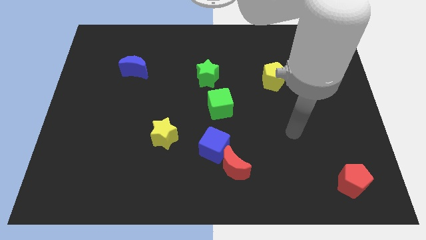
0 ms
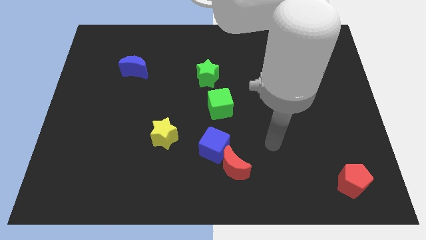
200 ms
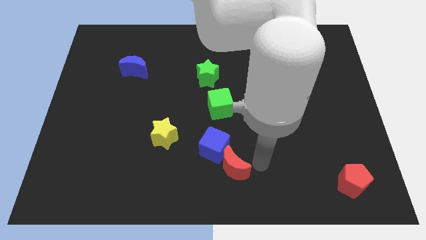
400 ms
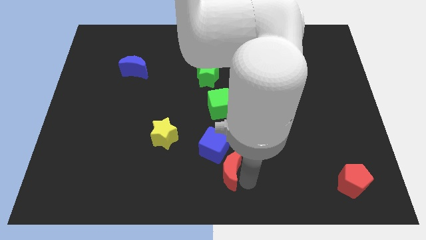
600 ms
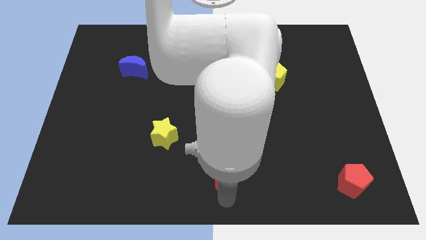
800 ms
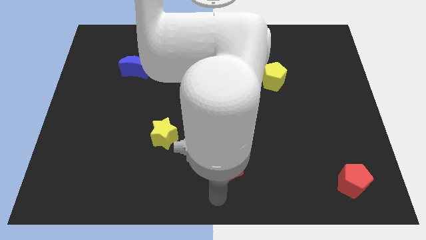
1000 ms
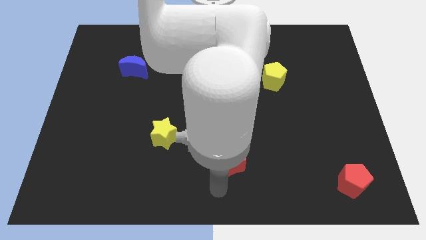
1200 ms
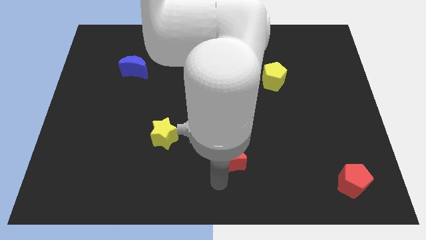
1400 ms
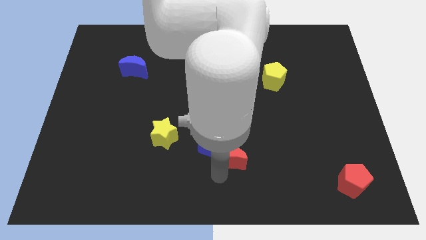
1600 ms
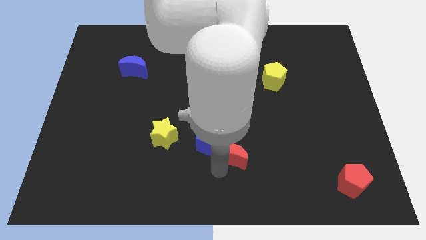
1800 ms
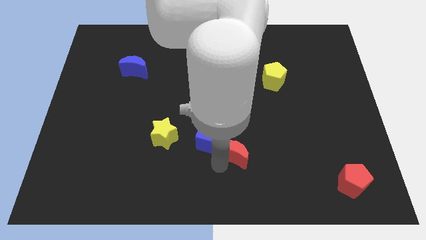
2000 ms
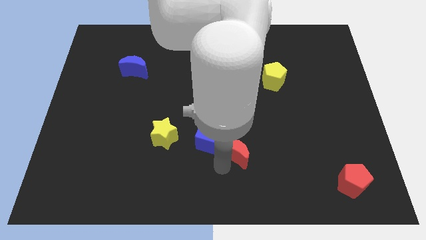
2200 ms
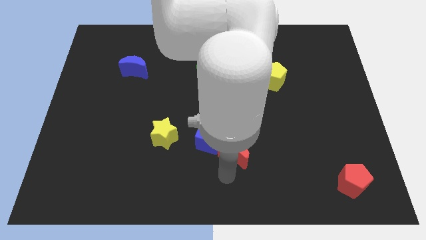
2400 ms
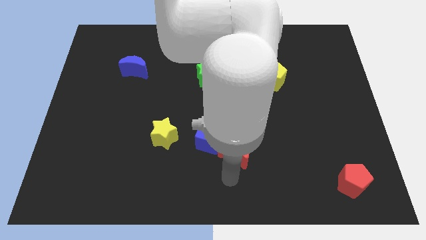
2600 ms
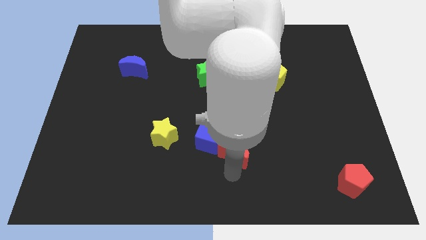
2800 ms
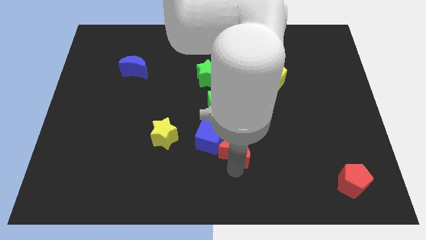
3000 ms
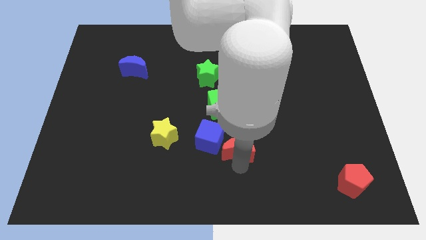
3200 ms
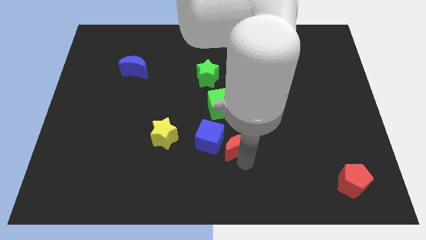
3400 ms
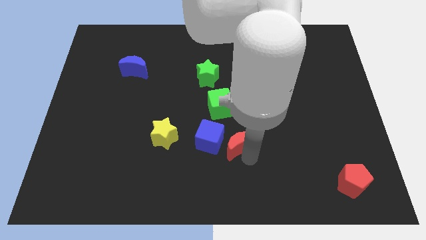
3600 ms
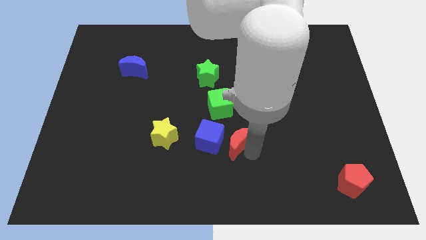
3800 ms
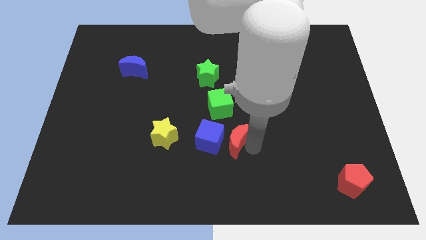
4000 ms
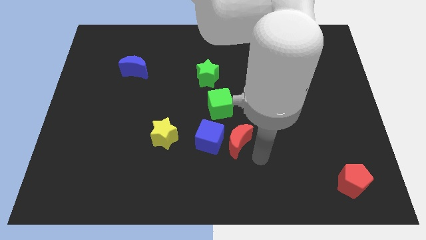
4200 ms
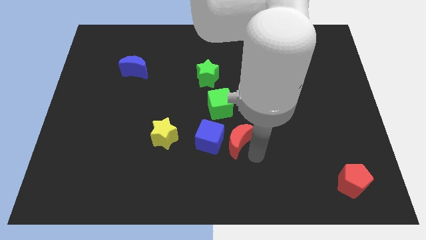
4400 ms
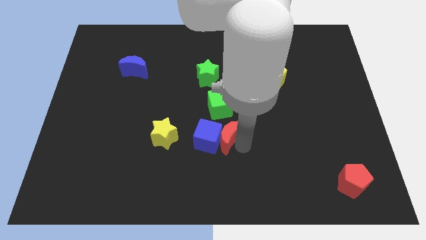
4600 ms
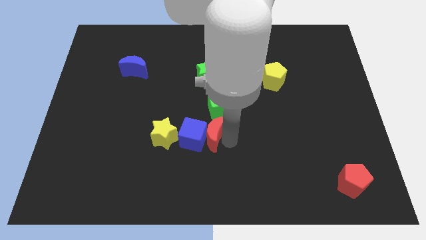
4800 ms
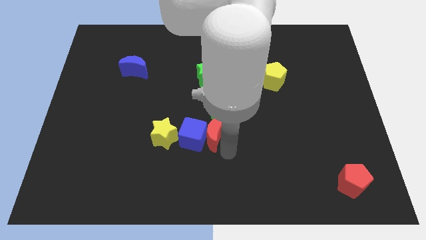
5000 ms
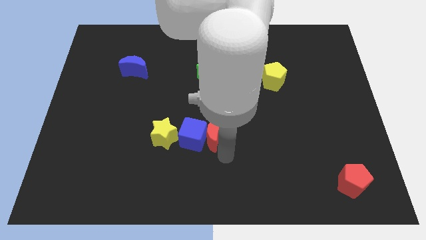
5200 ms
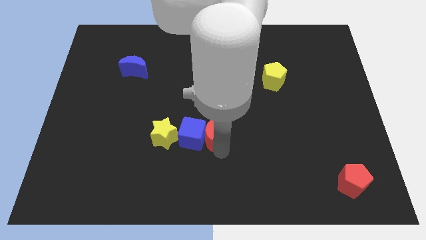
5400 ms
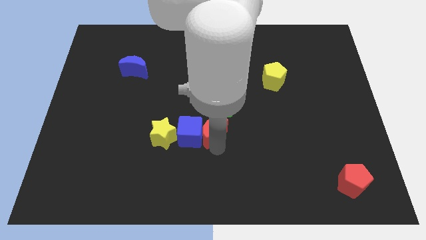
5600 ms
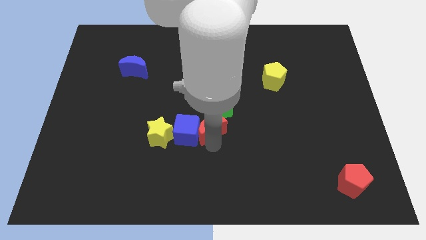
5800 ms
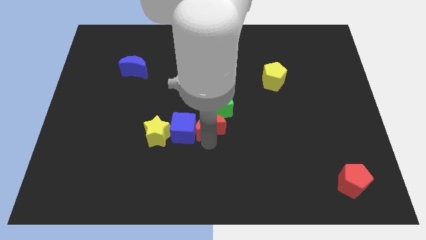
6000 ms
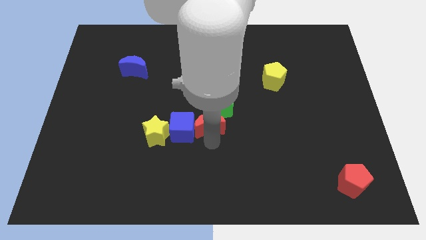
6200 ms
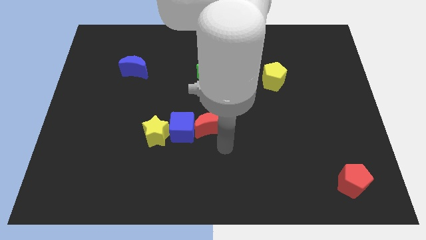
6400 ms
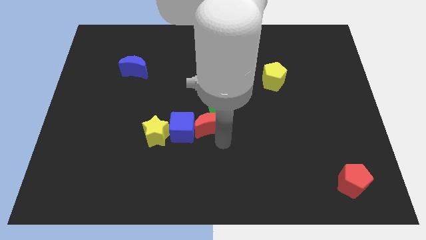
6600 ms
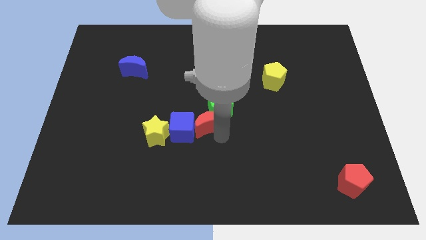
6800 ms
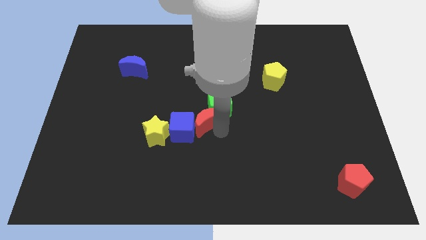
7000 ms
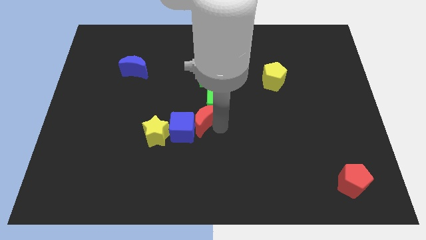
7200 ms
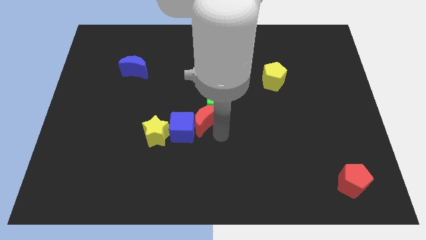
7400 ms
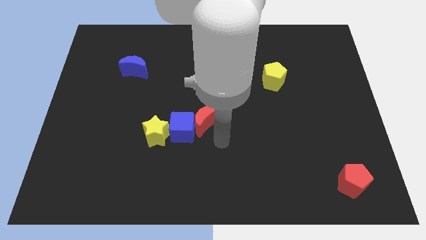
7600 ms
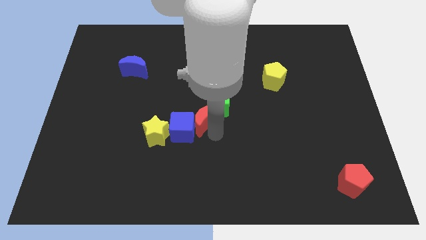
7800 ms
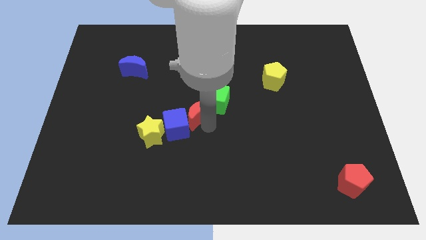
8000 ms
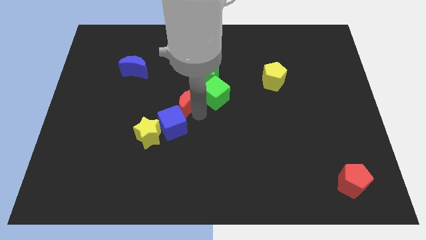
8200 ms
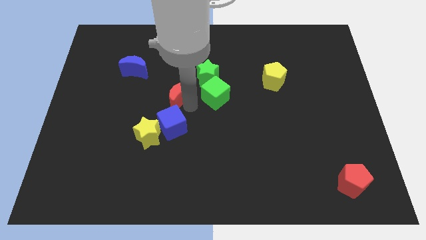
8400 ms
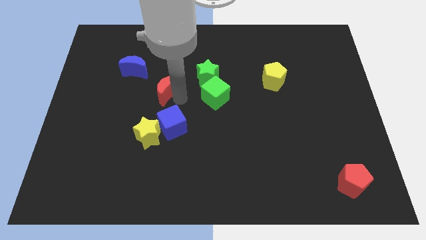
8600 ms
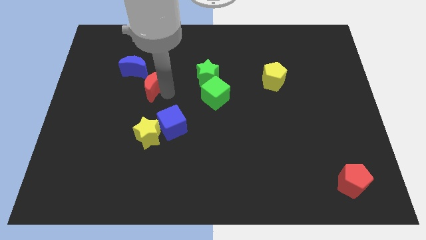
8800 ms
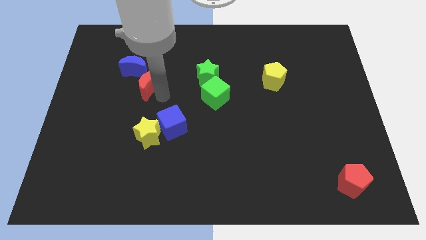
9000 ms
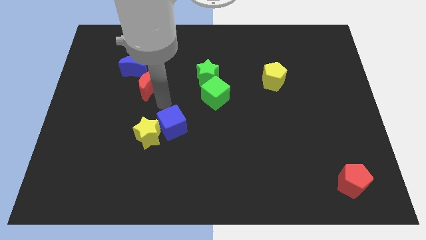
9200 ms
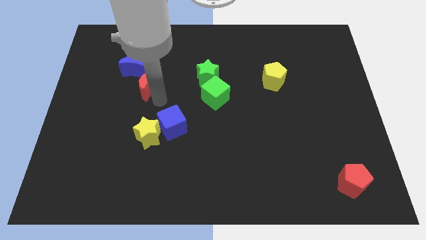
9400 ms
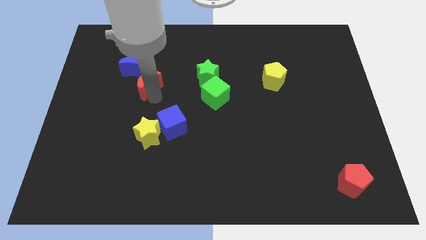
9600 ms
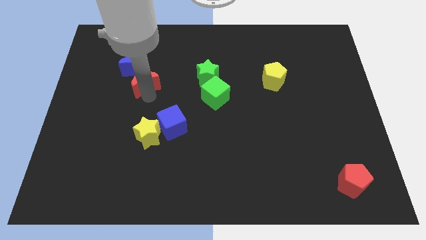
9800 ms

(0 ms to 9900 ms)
slide the red moon to the blue moon

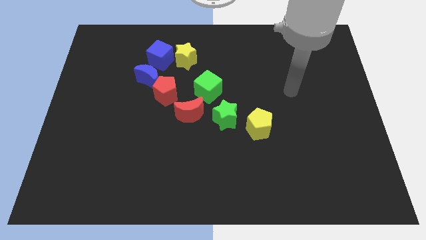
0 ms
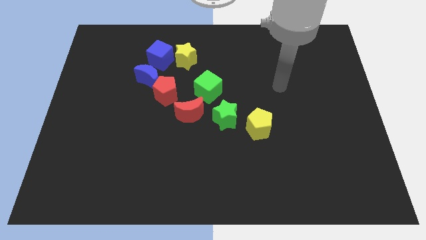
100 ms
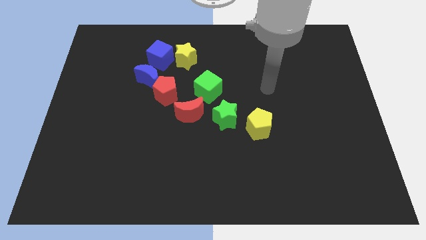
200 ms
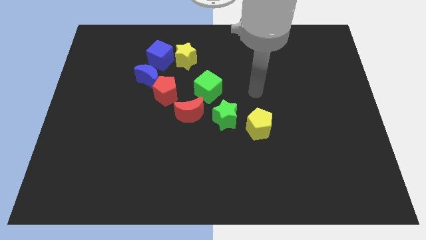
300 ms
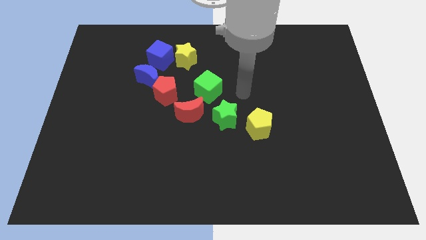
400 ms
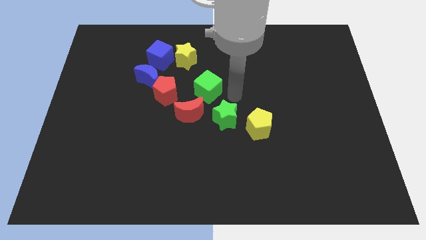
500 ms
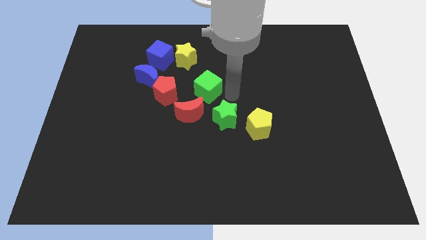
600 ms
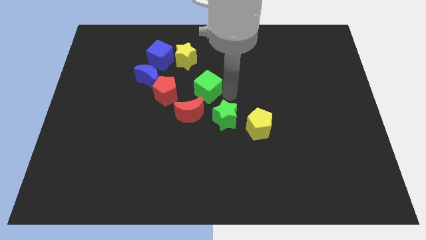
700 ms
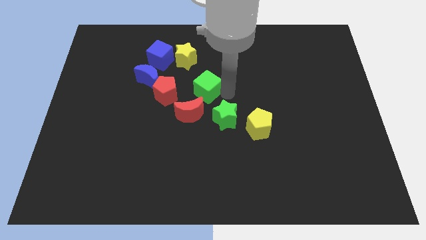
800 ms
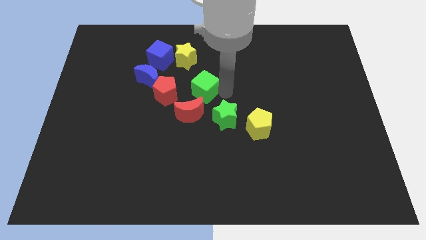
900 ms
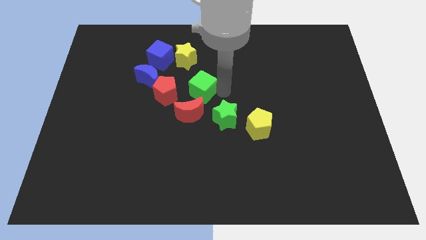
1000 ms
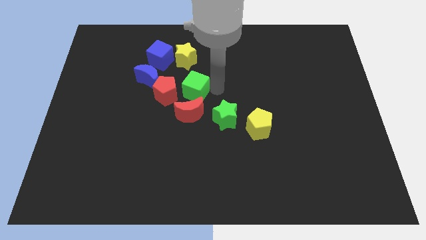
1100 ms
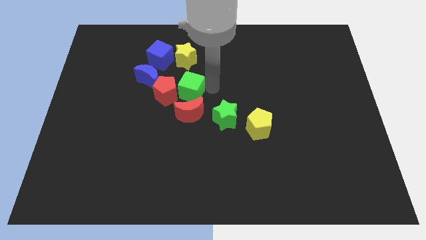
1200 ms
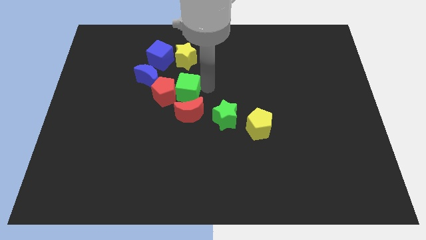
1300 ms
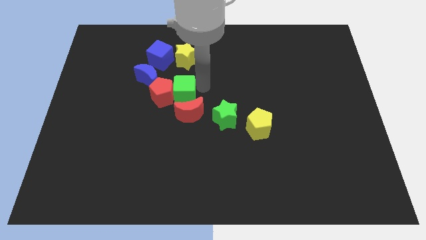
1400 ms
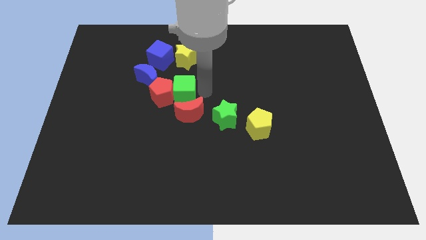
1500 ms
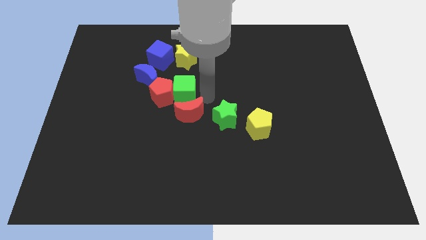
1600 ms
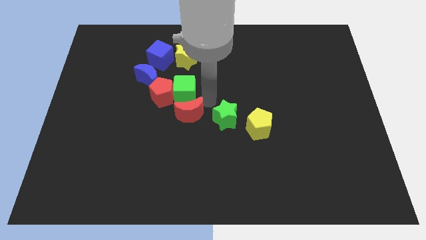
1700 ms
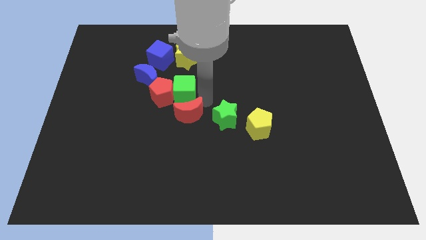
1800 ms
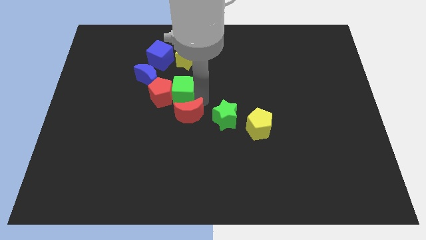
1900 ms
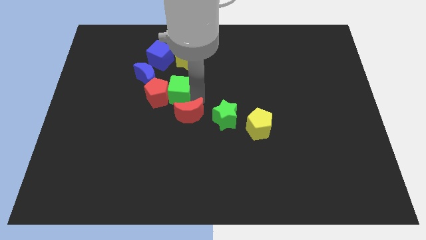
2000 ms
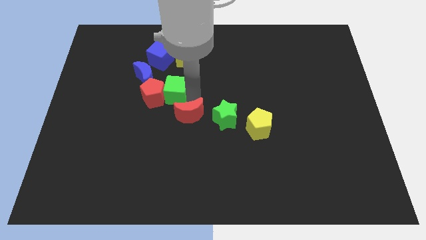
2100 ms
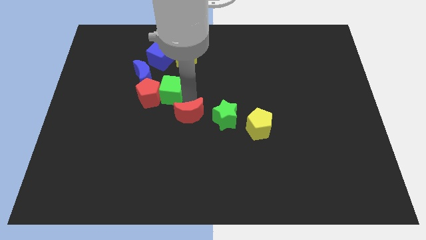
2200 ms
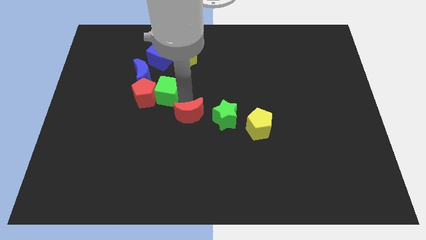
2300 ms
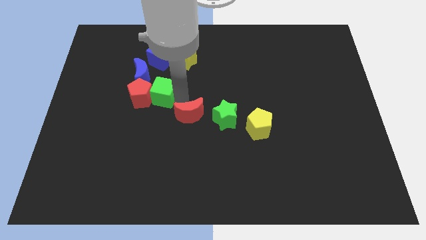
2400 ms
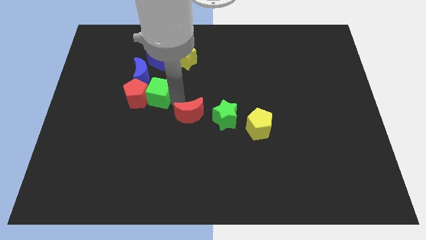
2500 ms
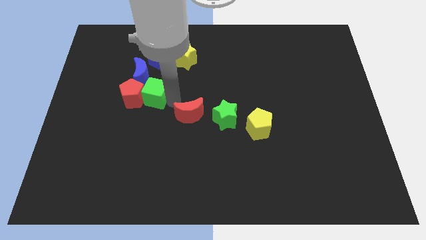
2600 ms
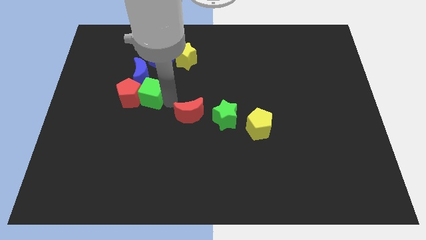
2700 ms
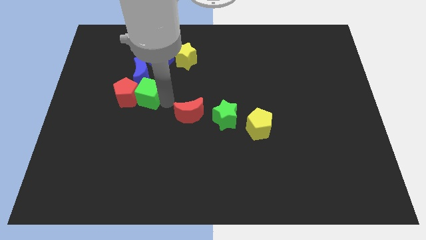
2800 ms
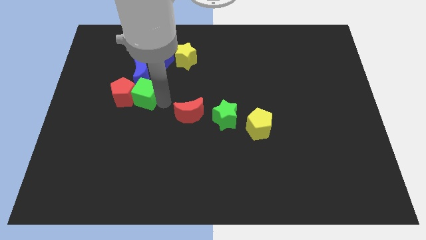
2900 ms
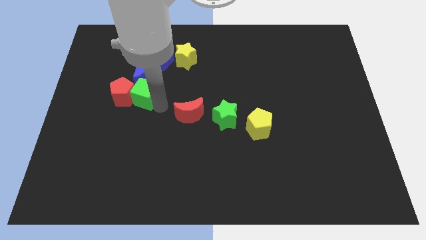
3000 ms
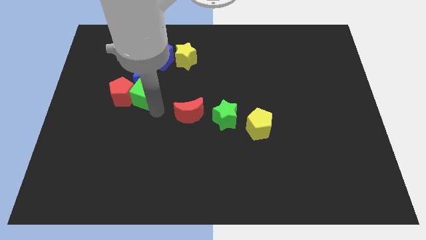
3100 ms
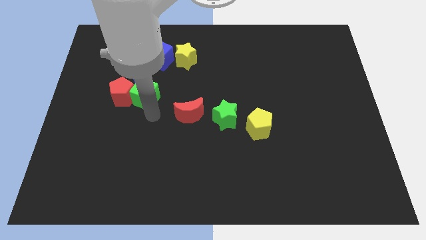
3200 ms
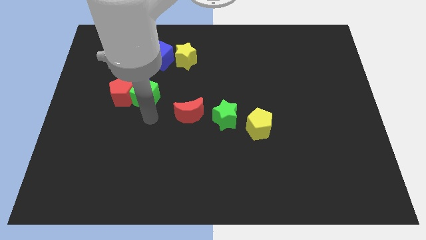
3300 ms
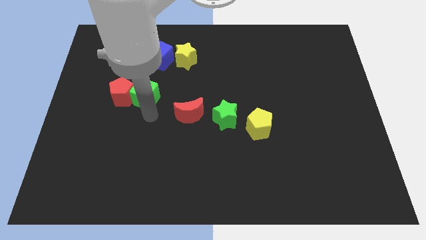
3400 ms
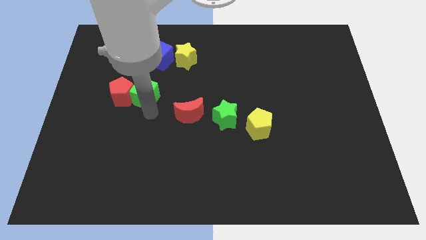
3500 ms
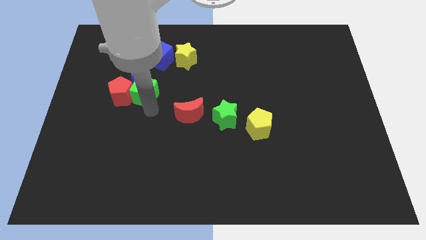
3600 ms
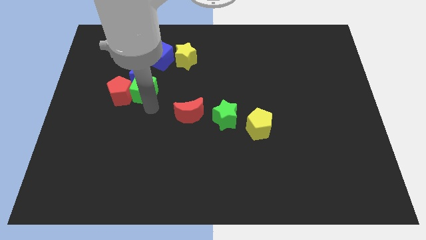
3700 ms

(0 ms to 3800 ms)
push the green cube towards the blue moon
